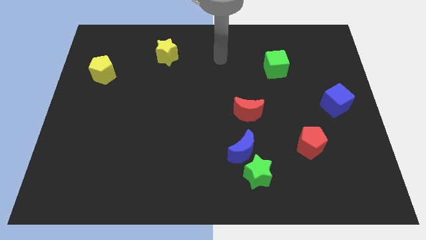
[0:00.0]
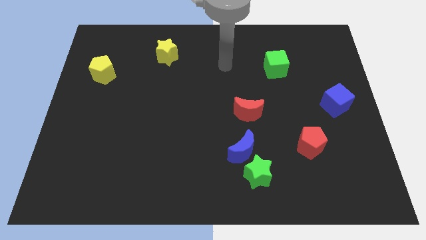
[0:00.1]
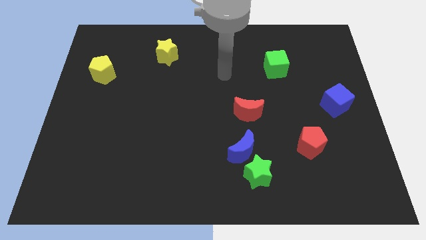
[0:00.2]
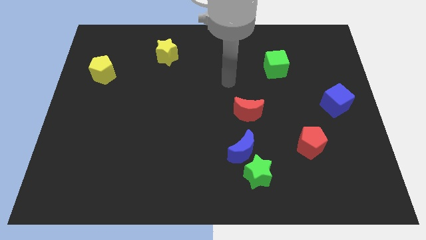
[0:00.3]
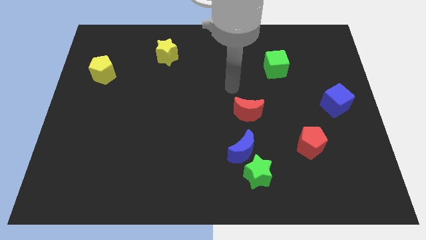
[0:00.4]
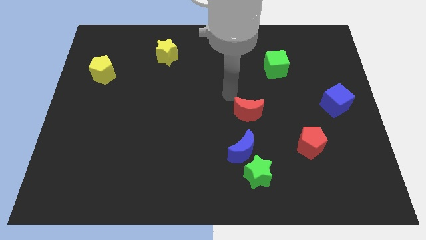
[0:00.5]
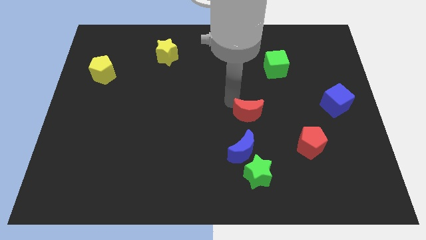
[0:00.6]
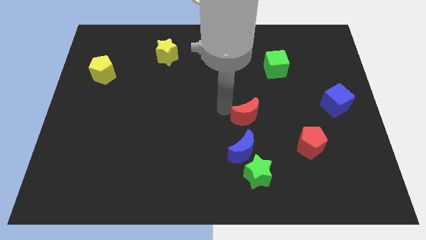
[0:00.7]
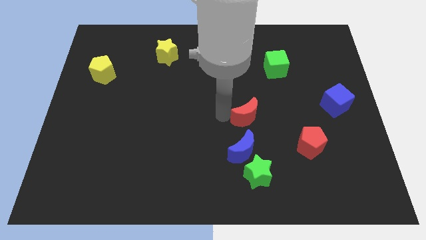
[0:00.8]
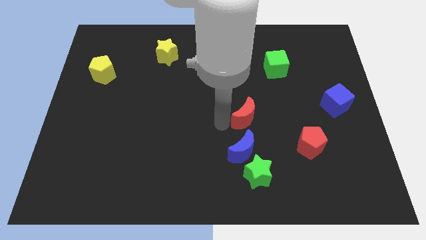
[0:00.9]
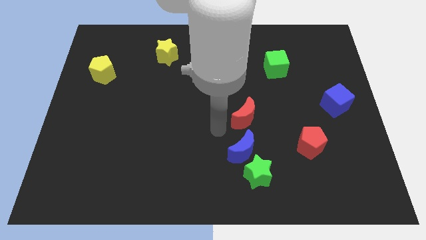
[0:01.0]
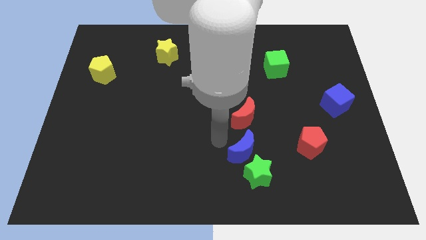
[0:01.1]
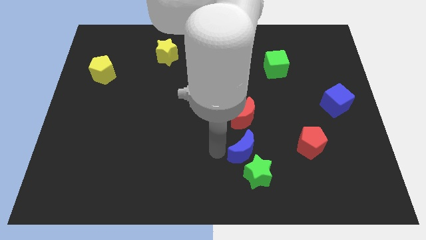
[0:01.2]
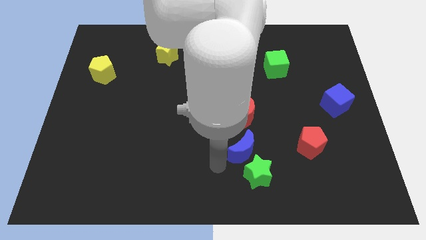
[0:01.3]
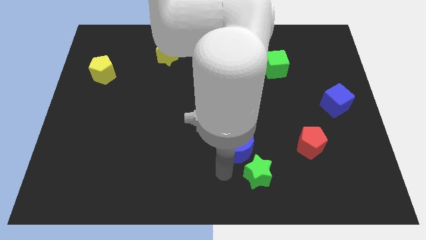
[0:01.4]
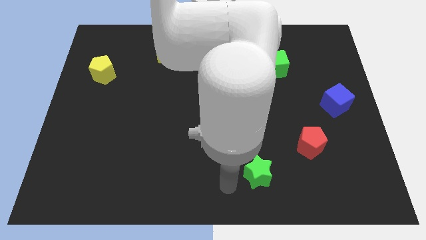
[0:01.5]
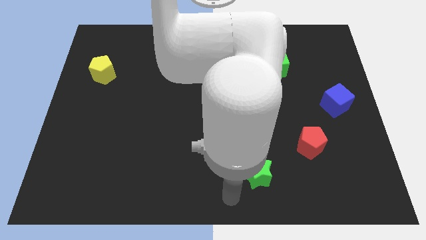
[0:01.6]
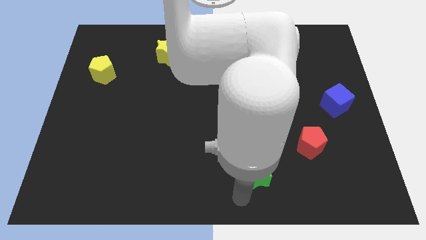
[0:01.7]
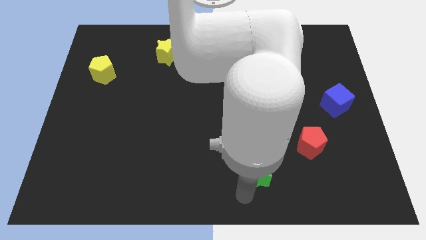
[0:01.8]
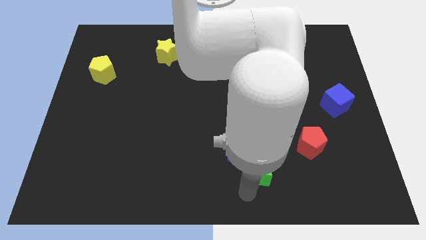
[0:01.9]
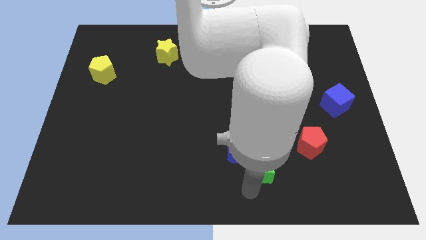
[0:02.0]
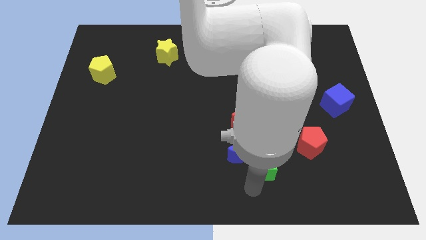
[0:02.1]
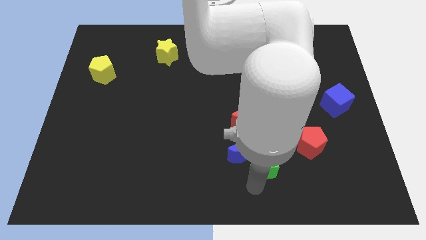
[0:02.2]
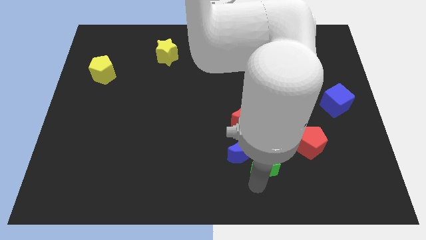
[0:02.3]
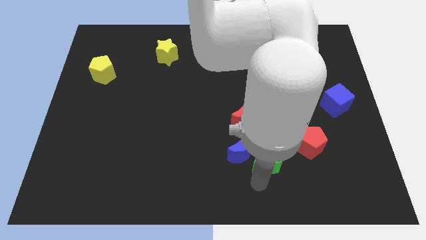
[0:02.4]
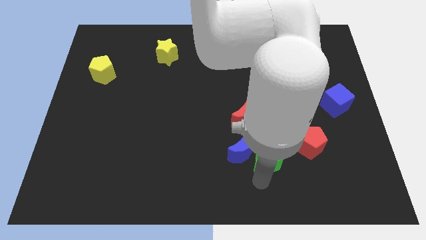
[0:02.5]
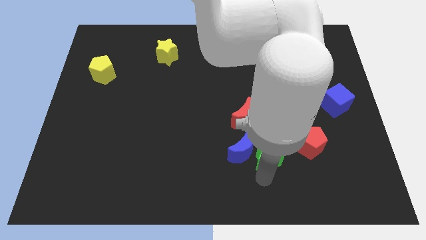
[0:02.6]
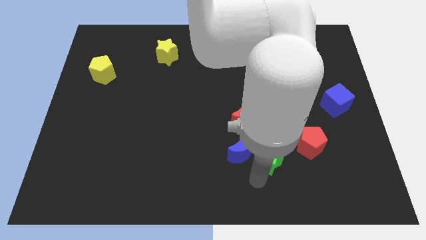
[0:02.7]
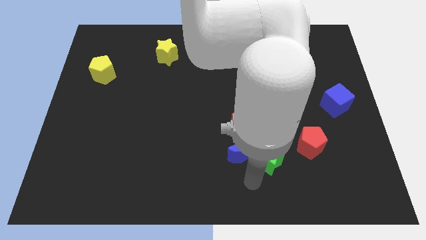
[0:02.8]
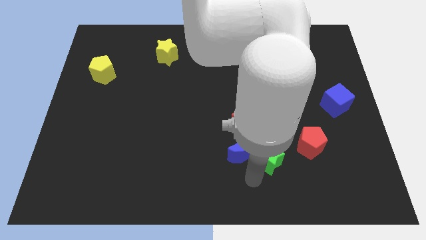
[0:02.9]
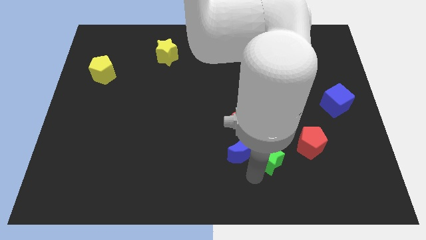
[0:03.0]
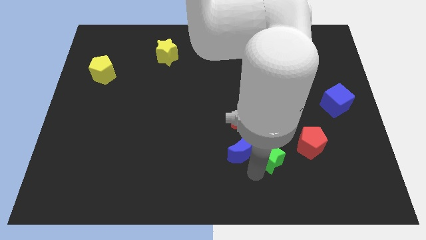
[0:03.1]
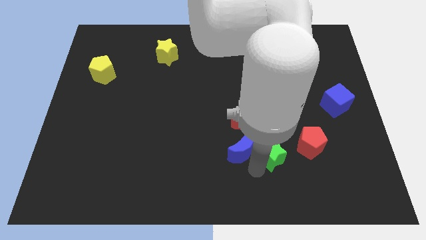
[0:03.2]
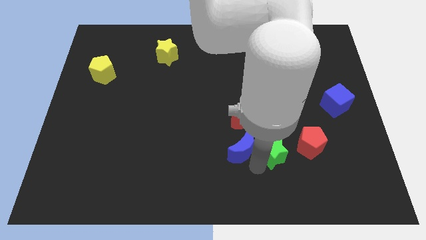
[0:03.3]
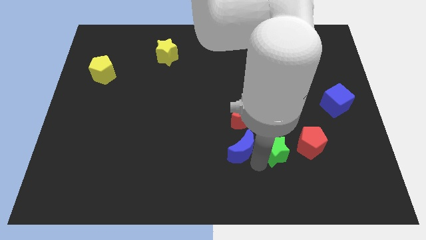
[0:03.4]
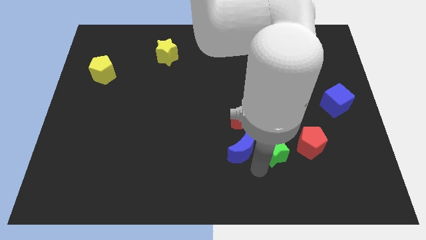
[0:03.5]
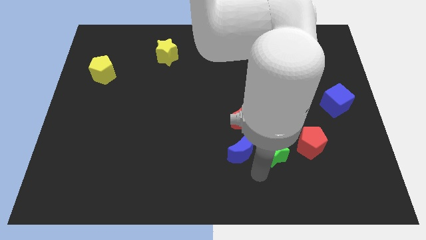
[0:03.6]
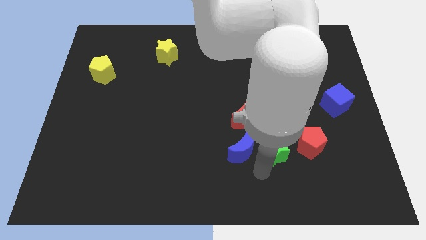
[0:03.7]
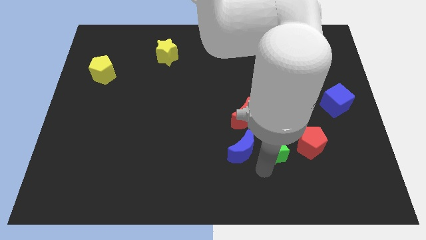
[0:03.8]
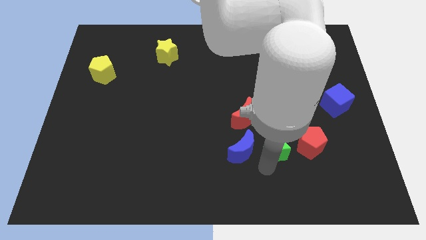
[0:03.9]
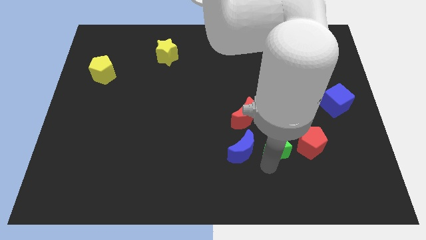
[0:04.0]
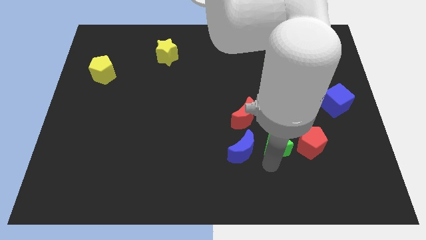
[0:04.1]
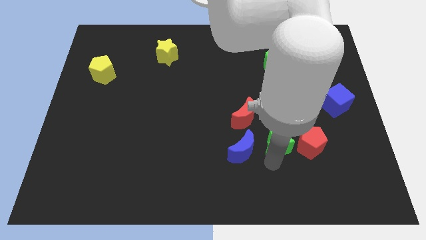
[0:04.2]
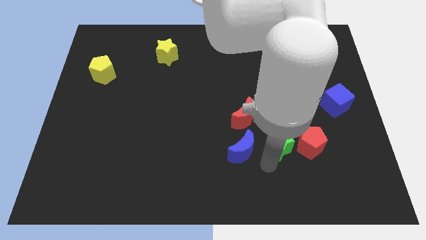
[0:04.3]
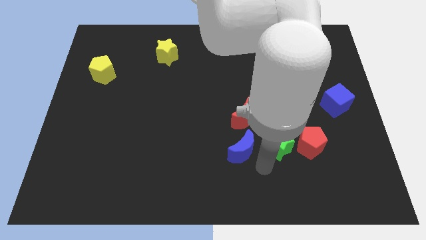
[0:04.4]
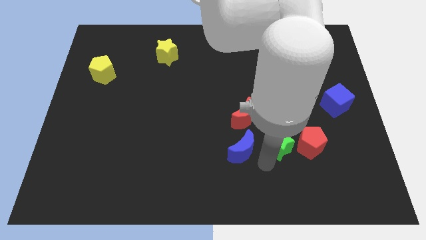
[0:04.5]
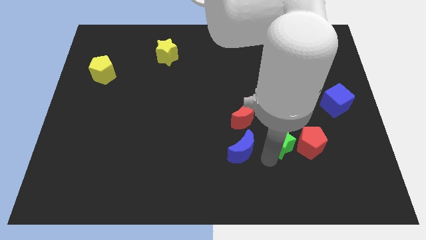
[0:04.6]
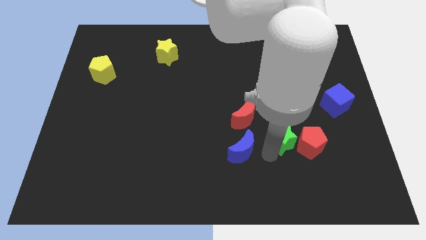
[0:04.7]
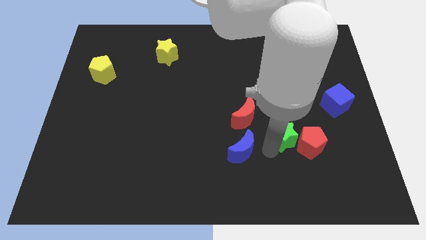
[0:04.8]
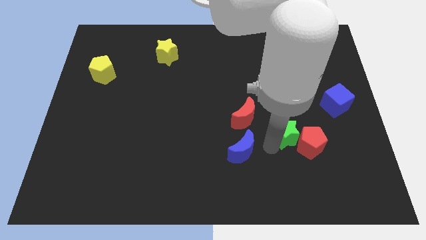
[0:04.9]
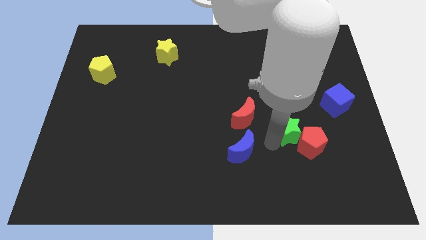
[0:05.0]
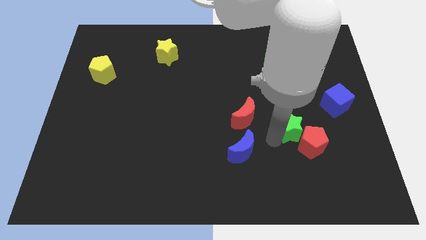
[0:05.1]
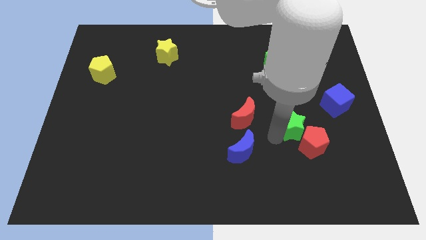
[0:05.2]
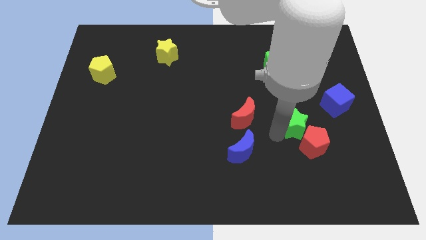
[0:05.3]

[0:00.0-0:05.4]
slide the green star to the bottom left side of the blue cube

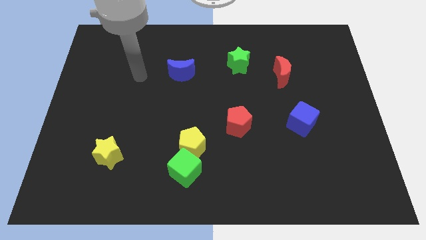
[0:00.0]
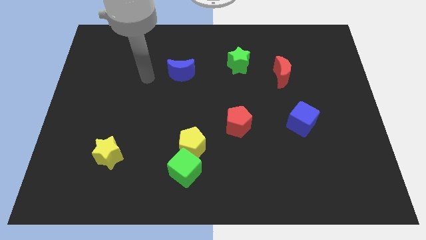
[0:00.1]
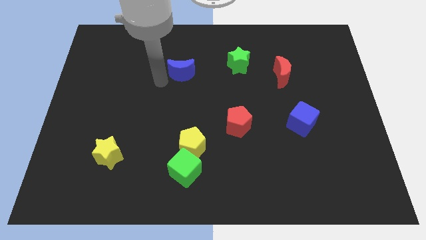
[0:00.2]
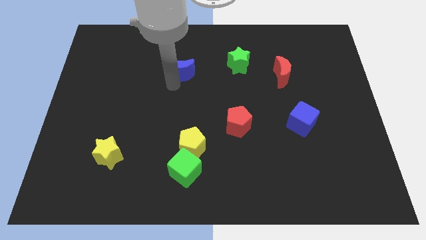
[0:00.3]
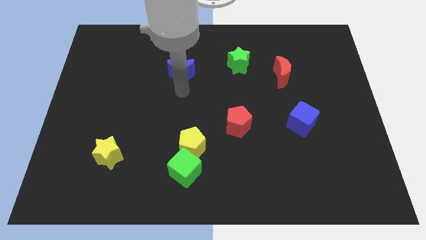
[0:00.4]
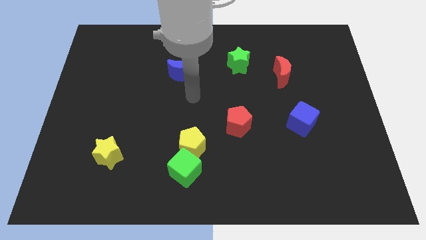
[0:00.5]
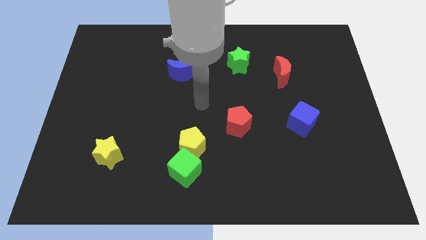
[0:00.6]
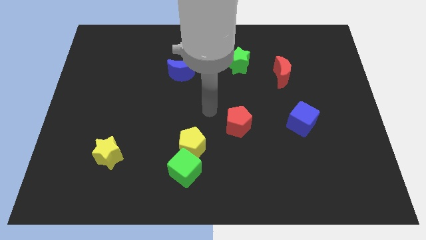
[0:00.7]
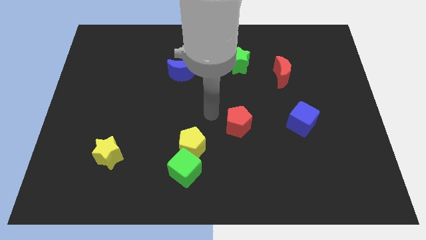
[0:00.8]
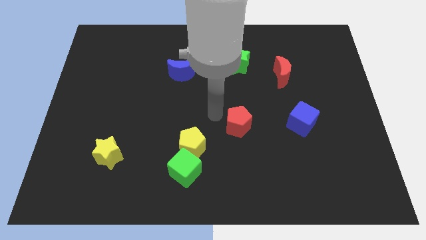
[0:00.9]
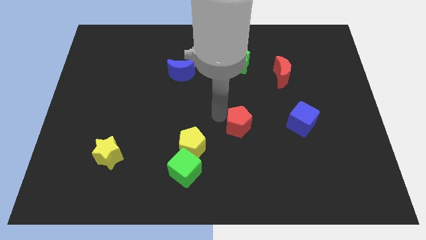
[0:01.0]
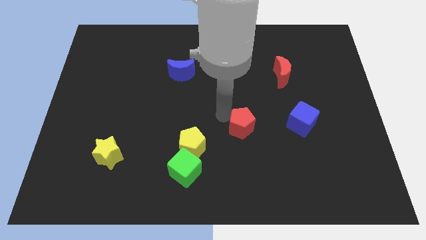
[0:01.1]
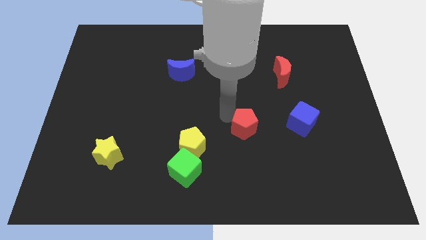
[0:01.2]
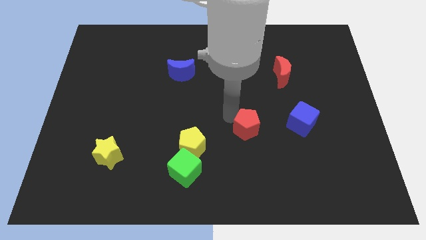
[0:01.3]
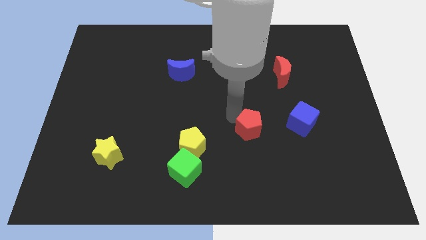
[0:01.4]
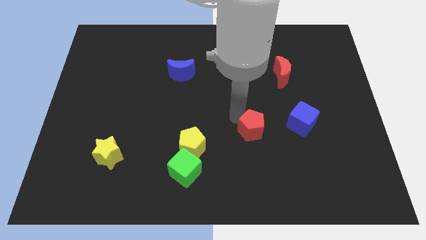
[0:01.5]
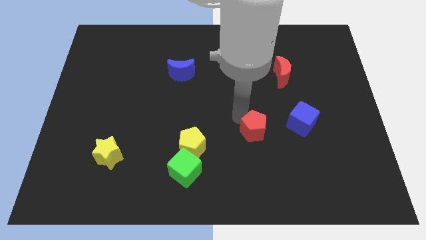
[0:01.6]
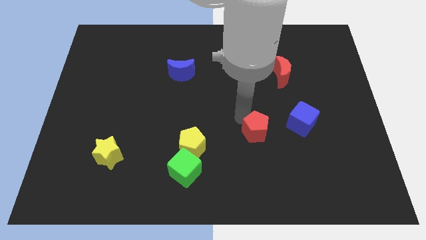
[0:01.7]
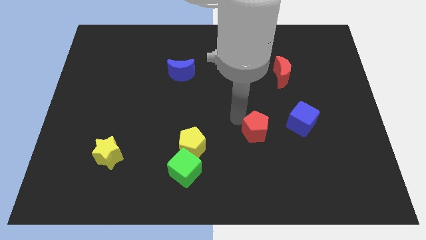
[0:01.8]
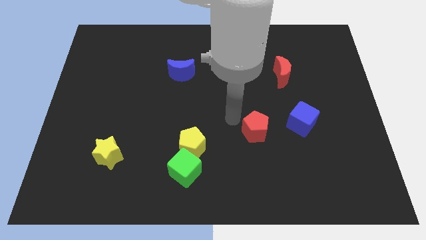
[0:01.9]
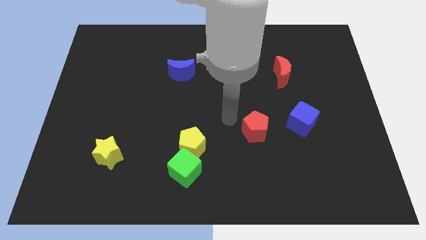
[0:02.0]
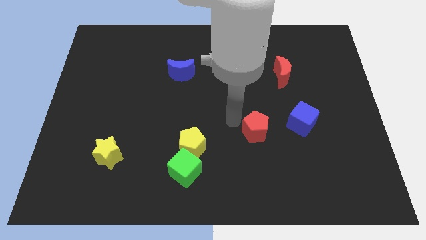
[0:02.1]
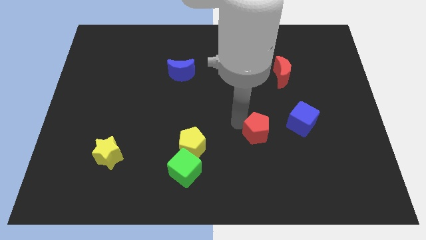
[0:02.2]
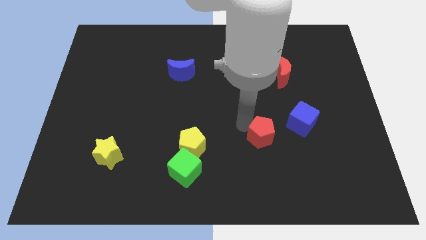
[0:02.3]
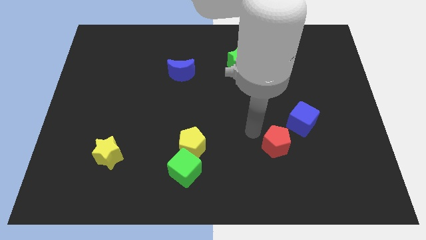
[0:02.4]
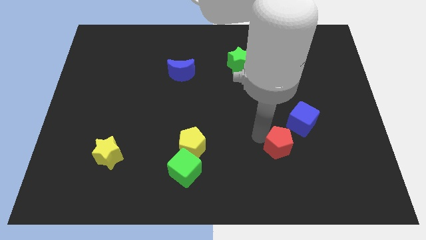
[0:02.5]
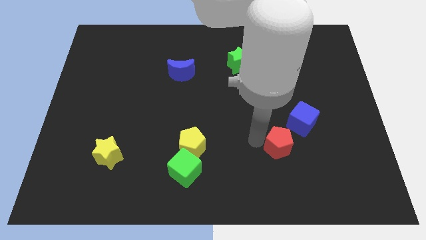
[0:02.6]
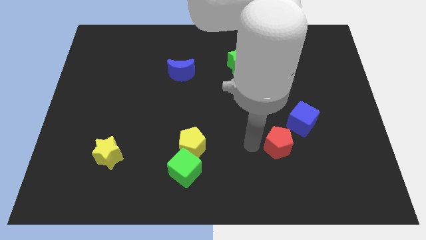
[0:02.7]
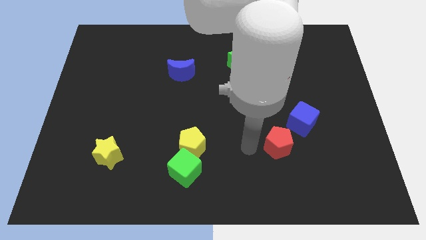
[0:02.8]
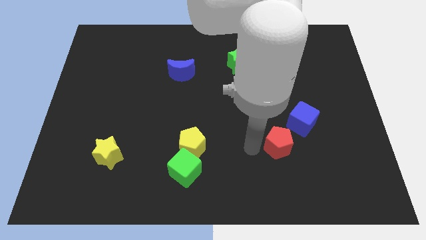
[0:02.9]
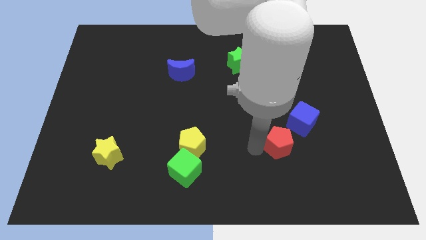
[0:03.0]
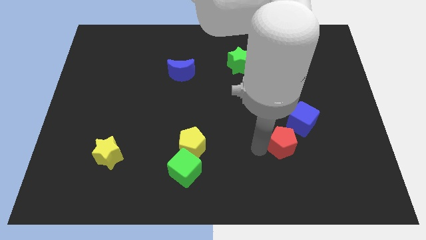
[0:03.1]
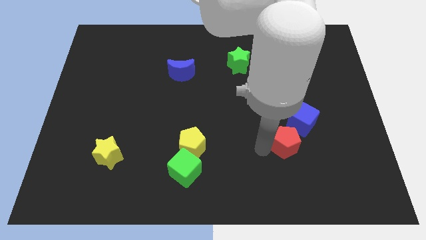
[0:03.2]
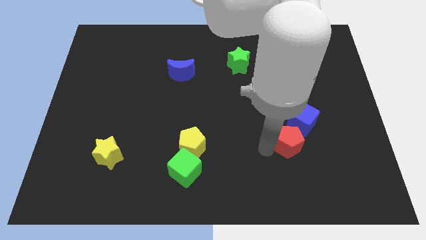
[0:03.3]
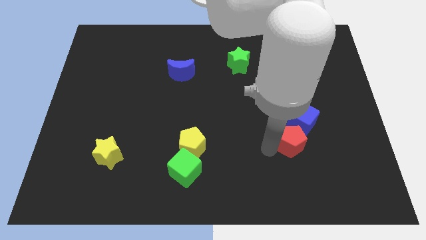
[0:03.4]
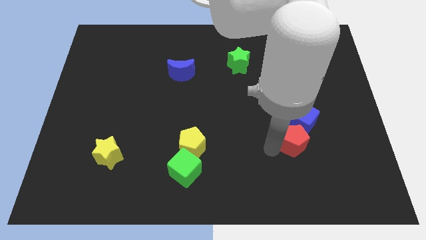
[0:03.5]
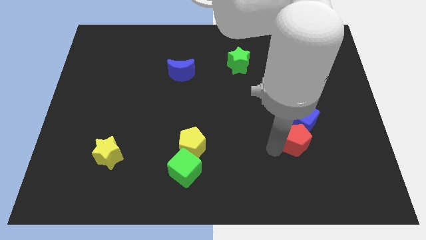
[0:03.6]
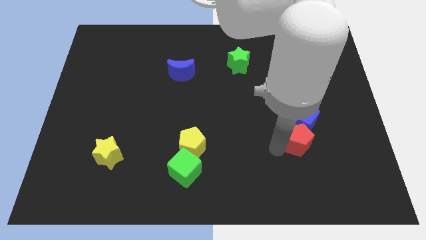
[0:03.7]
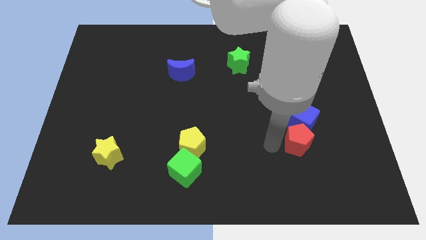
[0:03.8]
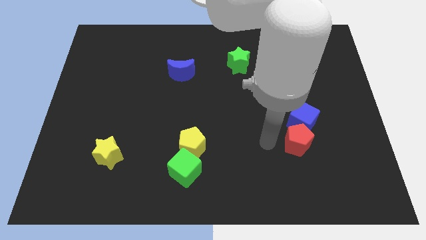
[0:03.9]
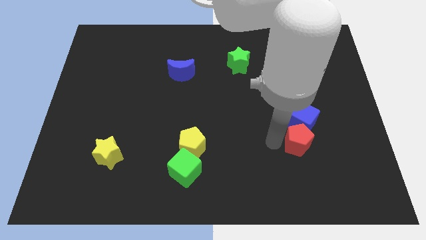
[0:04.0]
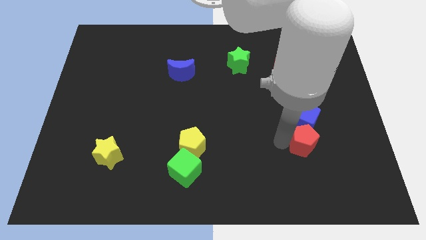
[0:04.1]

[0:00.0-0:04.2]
slide the red pentagon to the bottom right side of the blue cube
